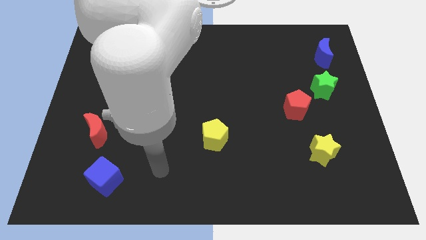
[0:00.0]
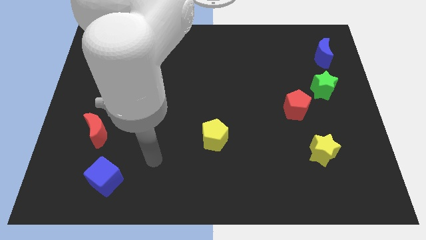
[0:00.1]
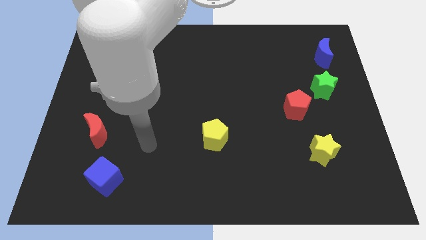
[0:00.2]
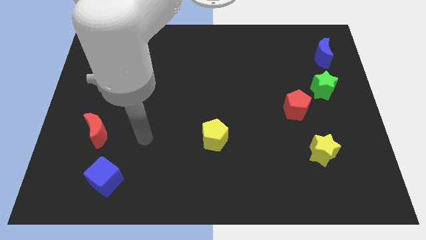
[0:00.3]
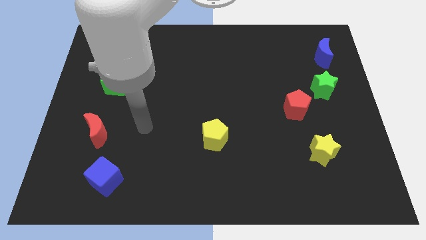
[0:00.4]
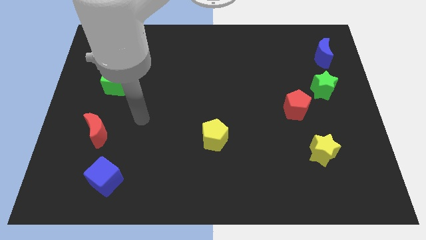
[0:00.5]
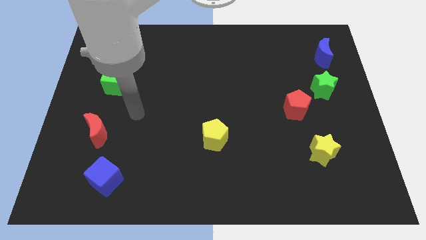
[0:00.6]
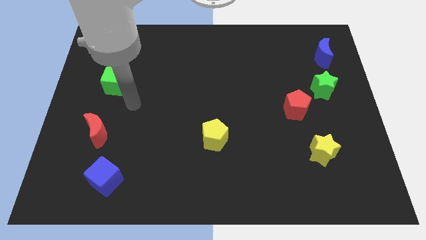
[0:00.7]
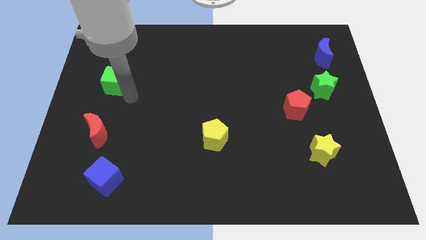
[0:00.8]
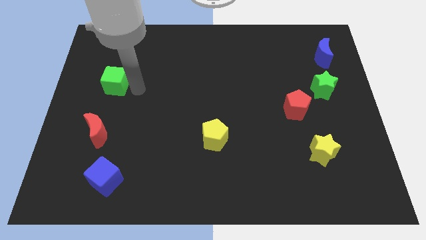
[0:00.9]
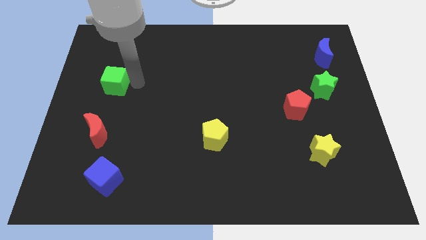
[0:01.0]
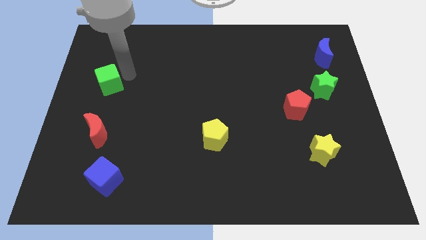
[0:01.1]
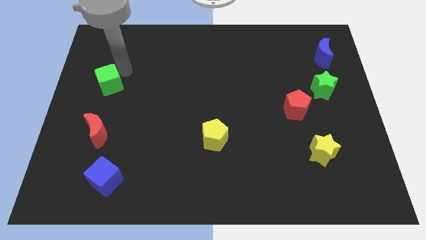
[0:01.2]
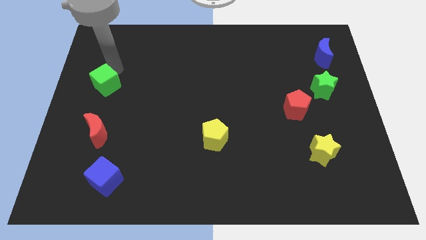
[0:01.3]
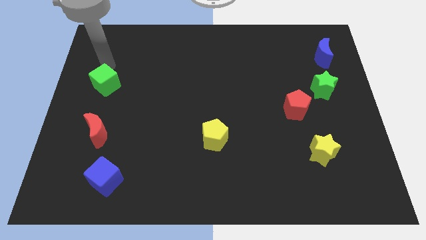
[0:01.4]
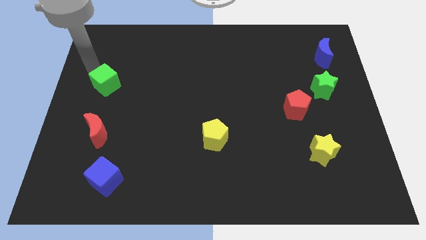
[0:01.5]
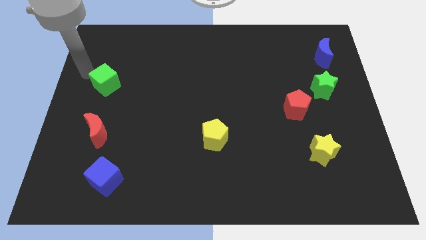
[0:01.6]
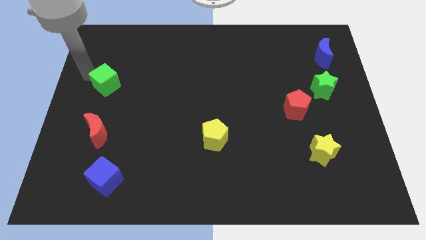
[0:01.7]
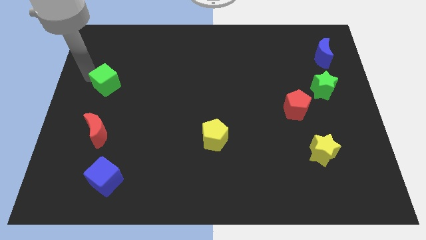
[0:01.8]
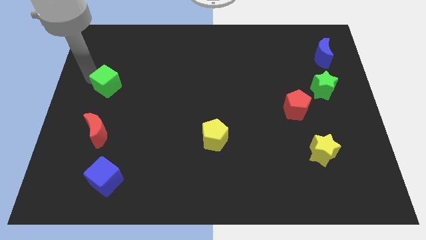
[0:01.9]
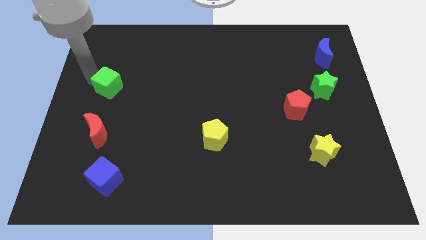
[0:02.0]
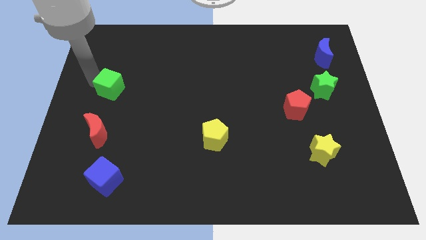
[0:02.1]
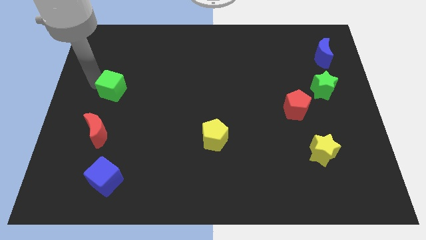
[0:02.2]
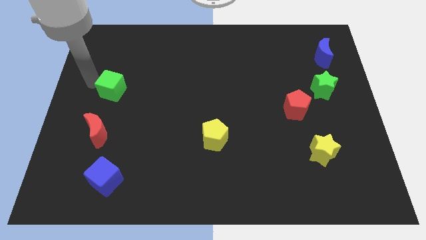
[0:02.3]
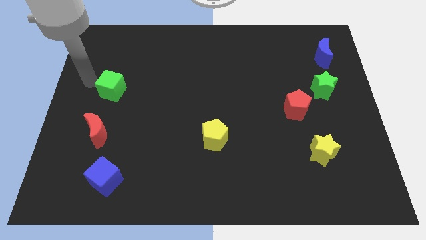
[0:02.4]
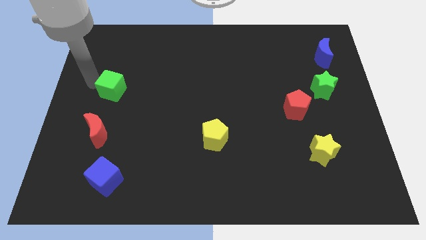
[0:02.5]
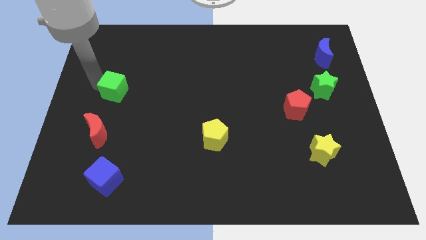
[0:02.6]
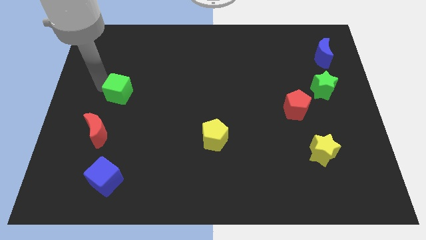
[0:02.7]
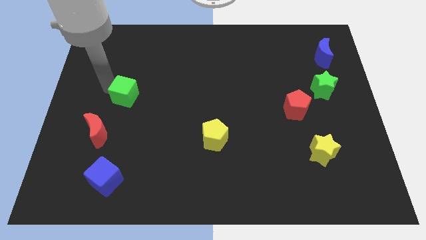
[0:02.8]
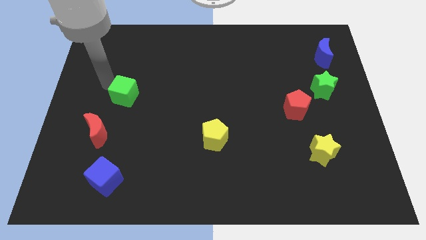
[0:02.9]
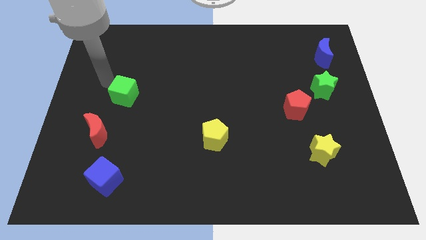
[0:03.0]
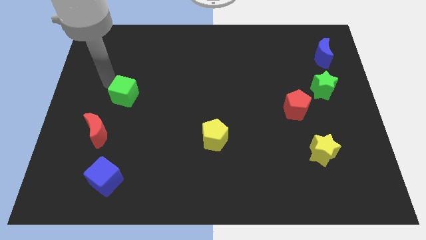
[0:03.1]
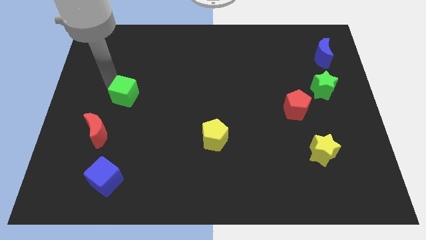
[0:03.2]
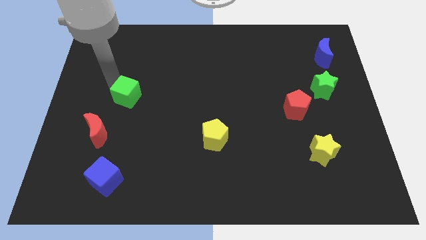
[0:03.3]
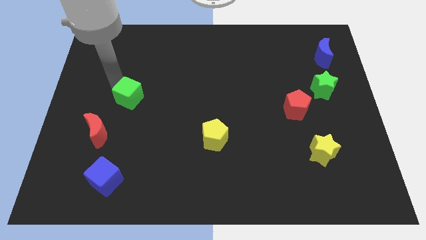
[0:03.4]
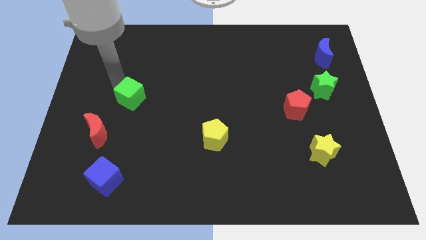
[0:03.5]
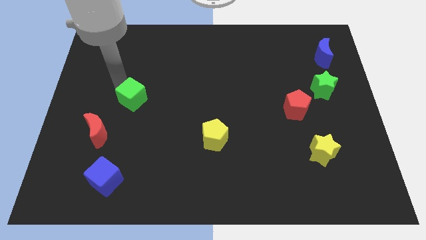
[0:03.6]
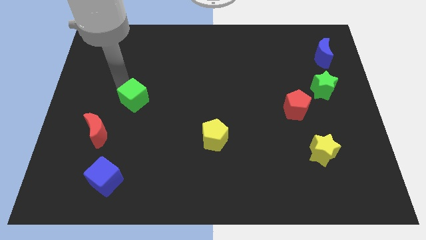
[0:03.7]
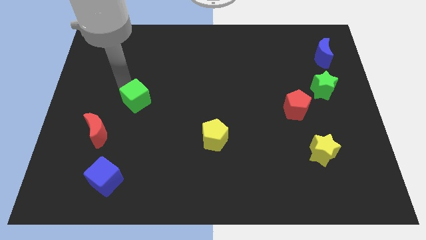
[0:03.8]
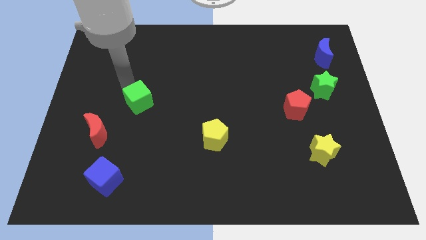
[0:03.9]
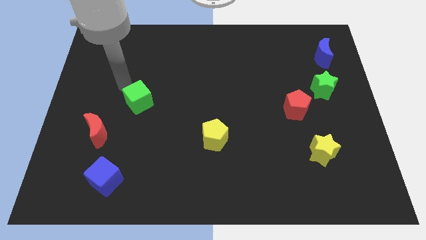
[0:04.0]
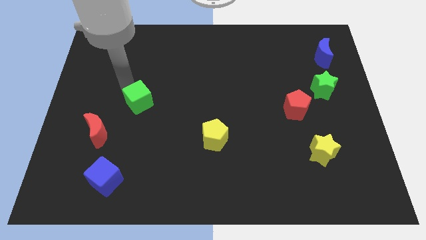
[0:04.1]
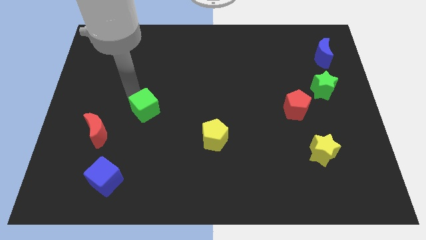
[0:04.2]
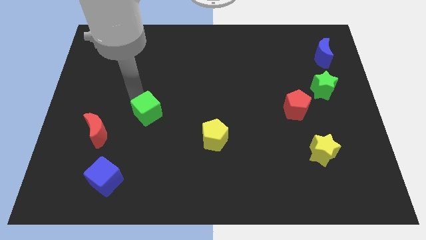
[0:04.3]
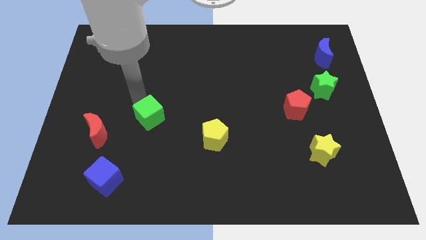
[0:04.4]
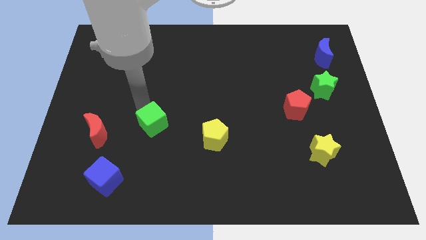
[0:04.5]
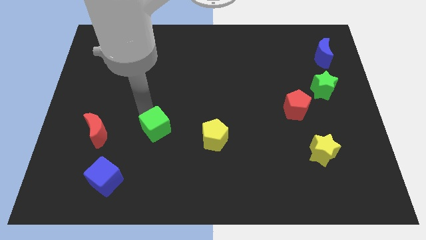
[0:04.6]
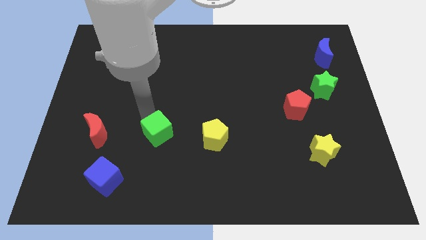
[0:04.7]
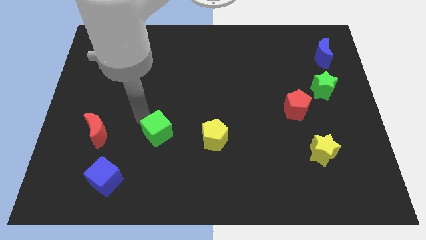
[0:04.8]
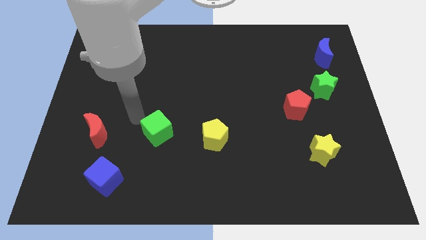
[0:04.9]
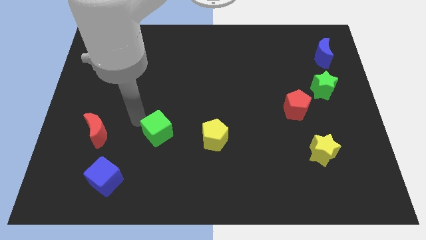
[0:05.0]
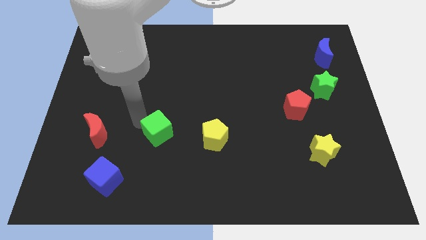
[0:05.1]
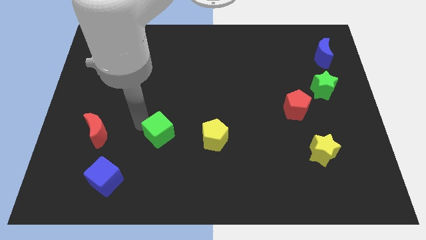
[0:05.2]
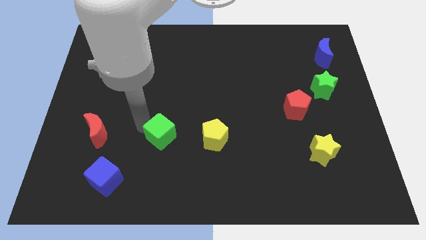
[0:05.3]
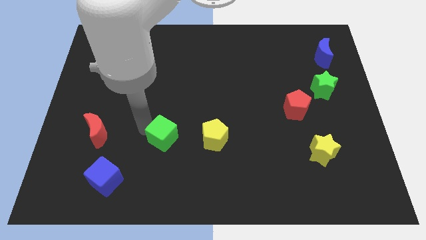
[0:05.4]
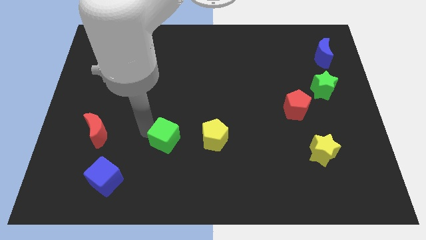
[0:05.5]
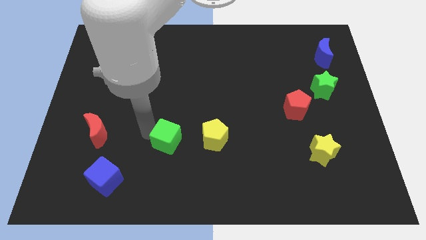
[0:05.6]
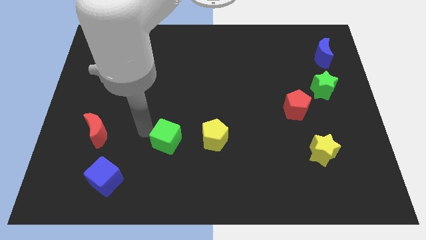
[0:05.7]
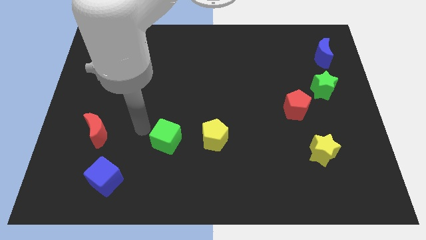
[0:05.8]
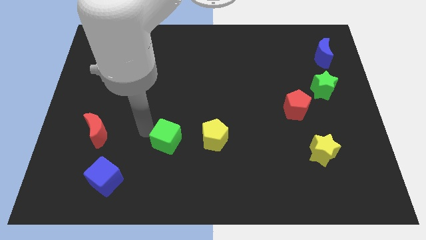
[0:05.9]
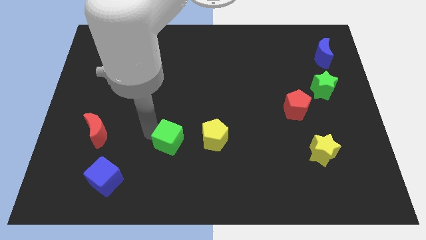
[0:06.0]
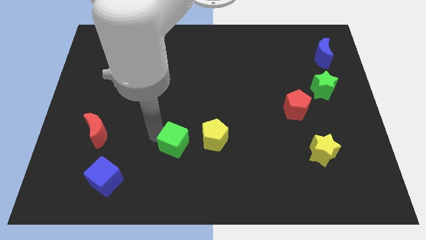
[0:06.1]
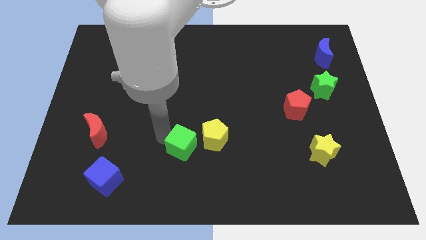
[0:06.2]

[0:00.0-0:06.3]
put the green cube to the bottom left side of the yellow pentagon

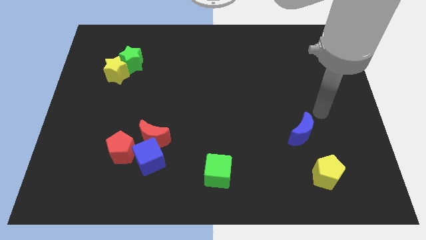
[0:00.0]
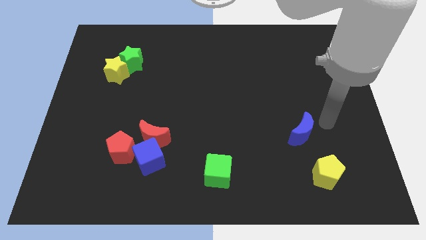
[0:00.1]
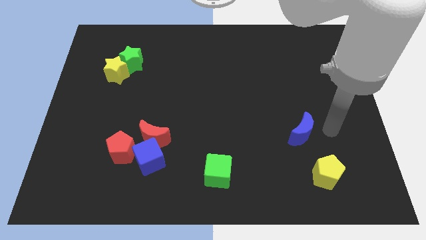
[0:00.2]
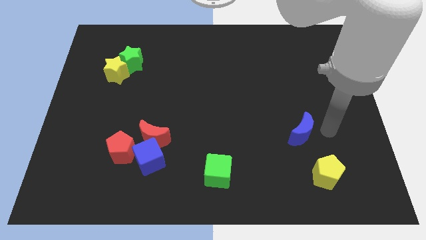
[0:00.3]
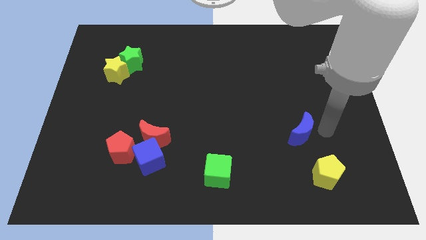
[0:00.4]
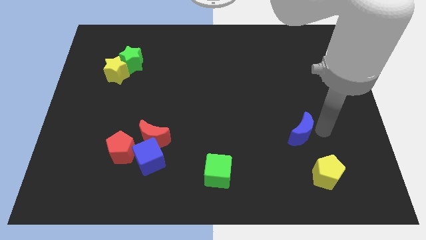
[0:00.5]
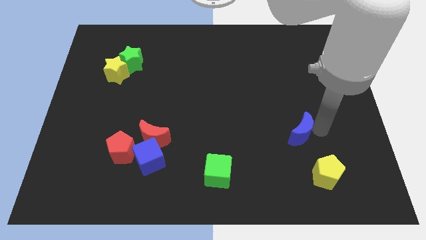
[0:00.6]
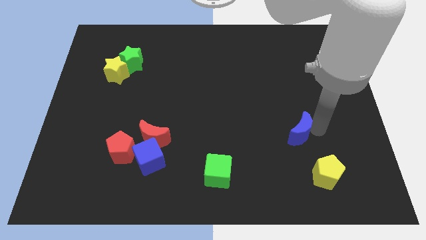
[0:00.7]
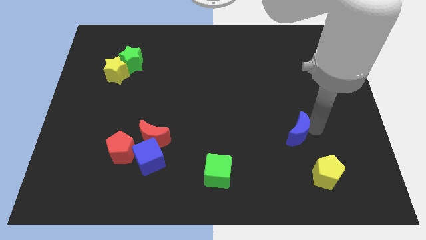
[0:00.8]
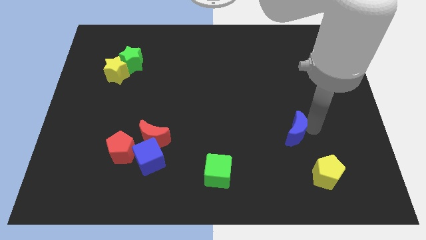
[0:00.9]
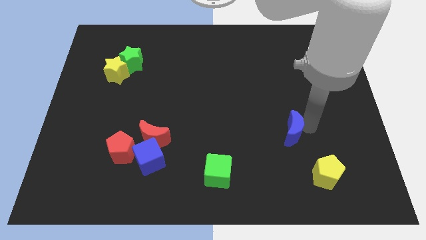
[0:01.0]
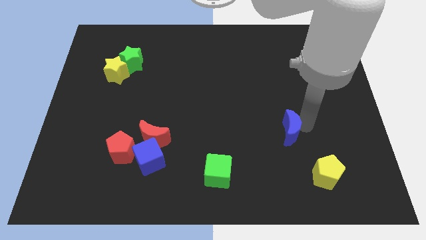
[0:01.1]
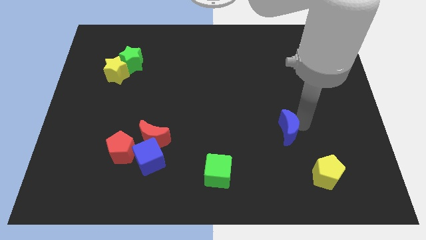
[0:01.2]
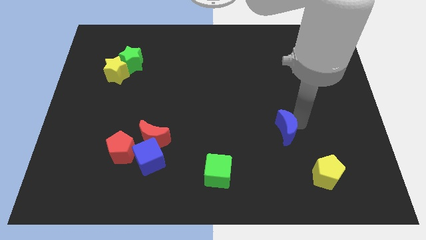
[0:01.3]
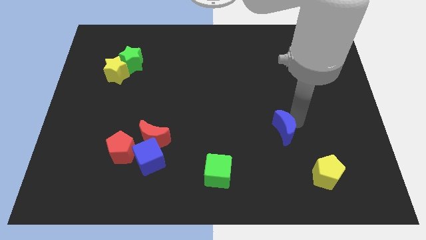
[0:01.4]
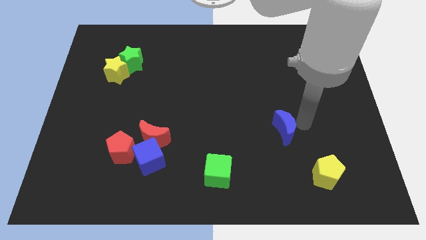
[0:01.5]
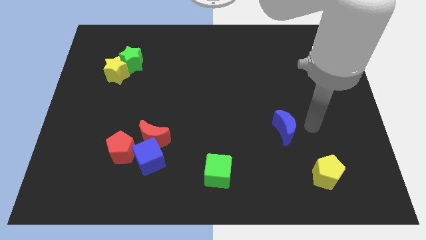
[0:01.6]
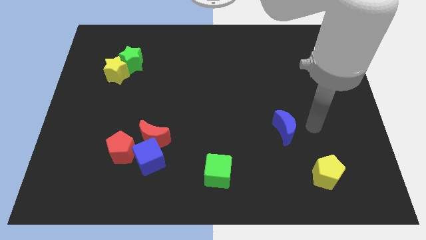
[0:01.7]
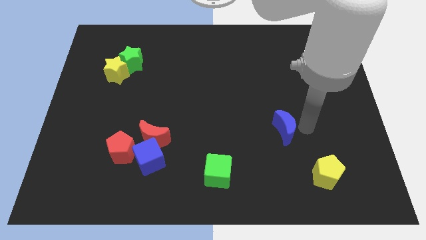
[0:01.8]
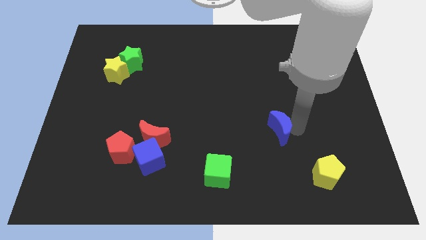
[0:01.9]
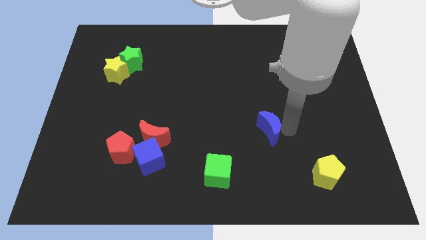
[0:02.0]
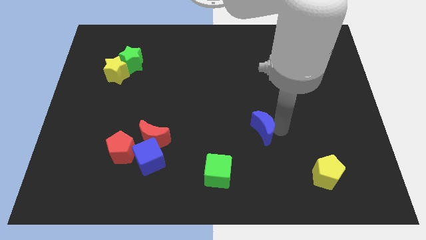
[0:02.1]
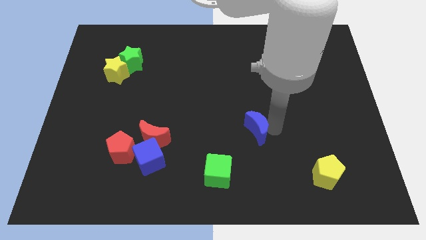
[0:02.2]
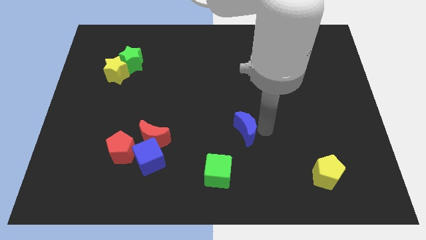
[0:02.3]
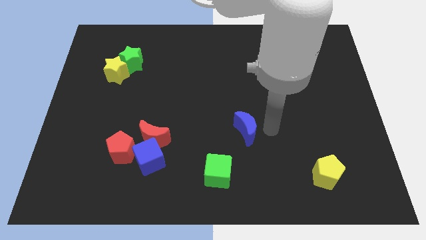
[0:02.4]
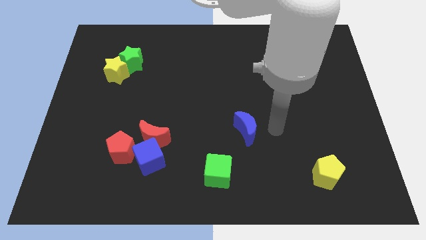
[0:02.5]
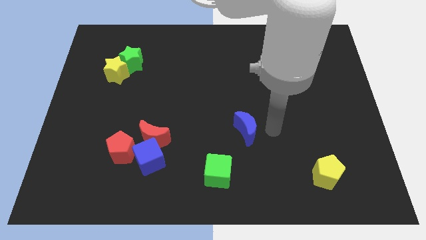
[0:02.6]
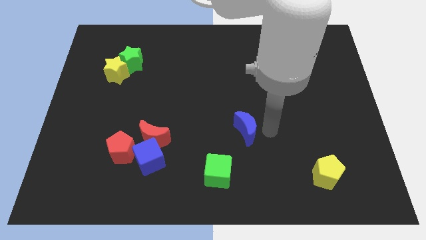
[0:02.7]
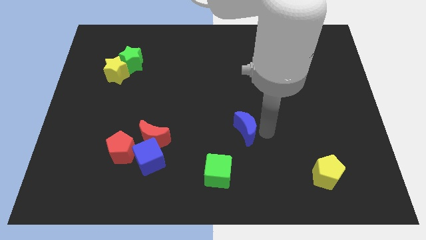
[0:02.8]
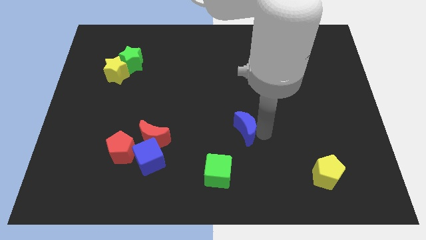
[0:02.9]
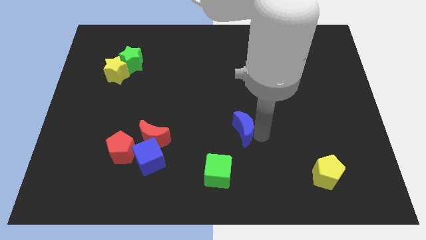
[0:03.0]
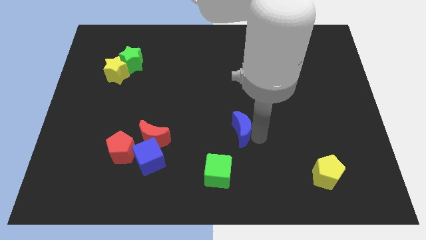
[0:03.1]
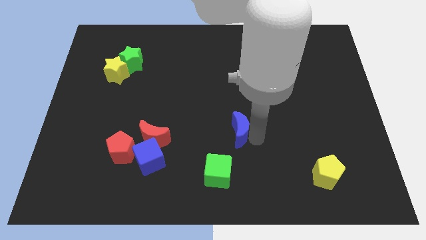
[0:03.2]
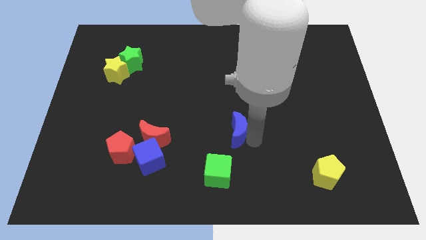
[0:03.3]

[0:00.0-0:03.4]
slide the blue moon to the top of the green cube
